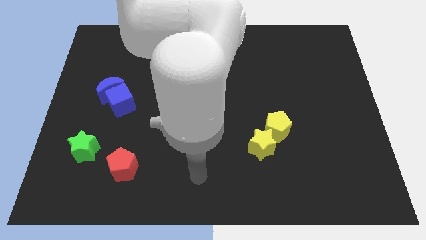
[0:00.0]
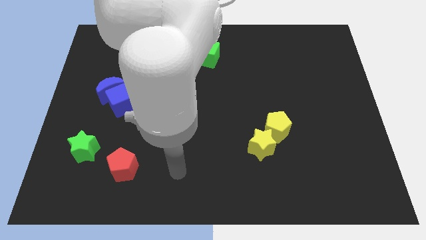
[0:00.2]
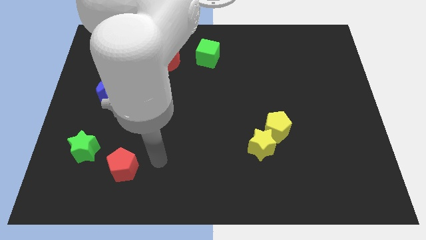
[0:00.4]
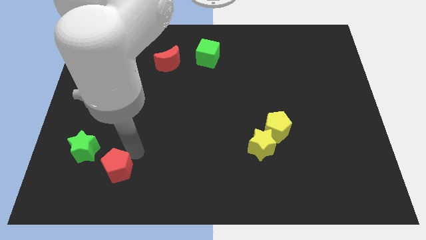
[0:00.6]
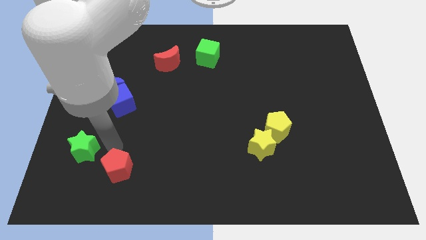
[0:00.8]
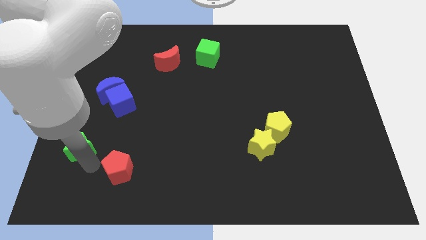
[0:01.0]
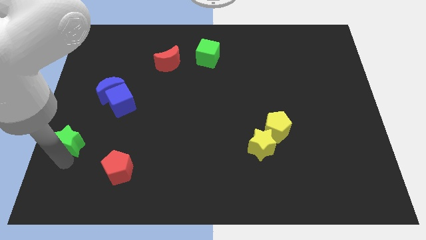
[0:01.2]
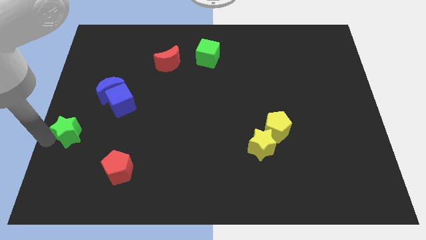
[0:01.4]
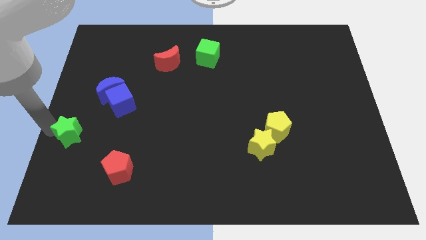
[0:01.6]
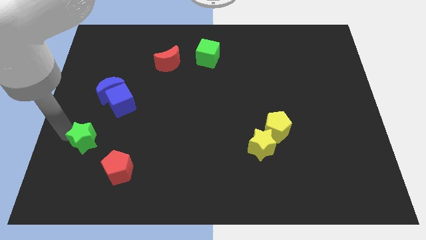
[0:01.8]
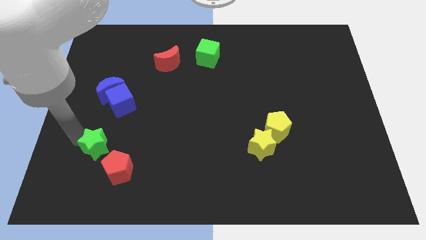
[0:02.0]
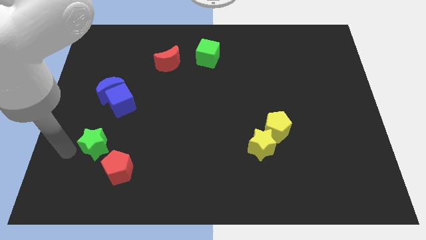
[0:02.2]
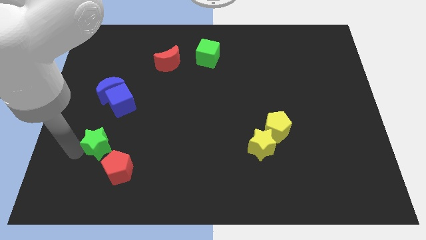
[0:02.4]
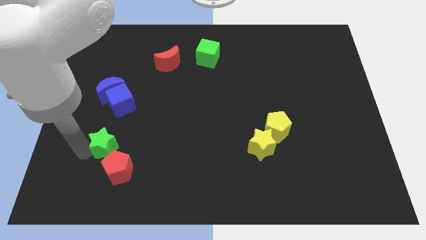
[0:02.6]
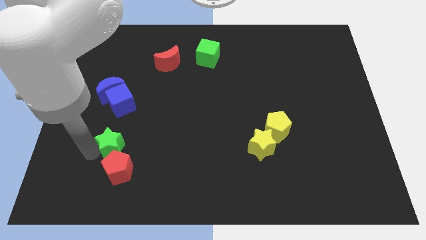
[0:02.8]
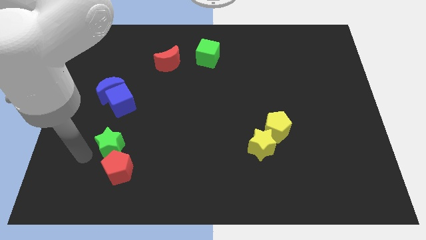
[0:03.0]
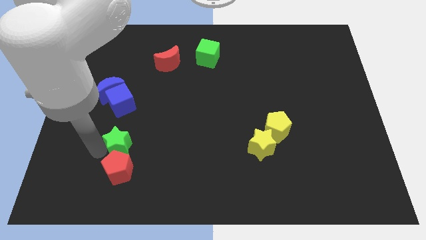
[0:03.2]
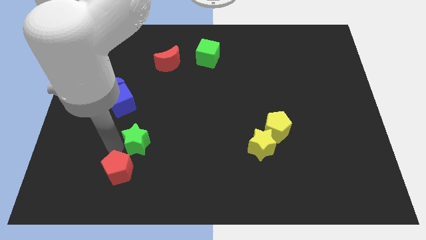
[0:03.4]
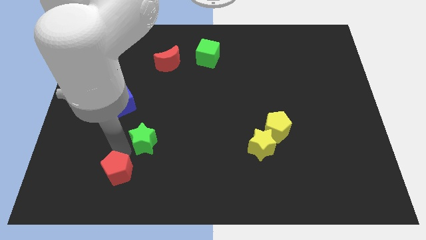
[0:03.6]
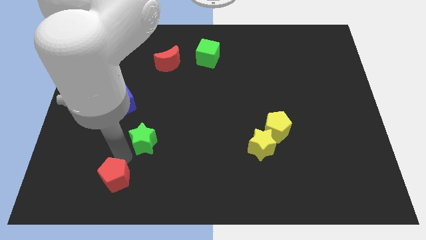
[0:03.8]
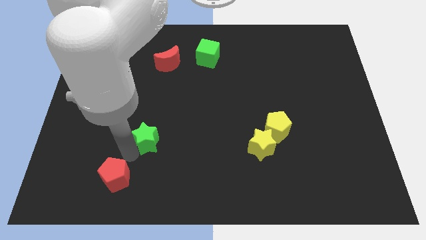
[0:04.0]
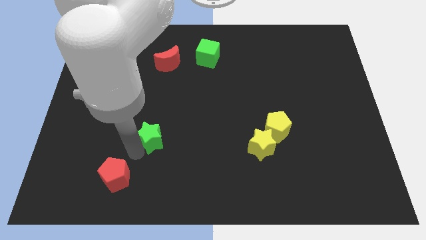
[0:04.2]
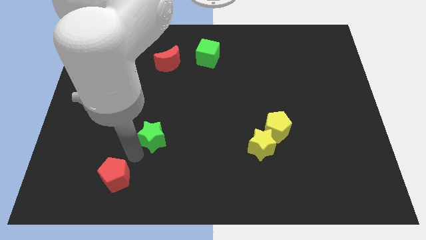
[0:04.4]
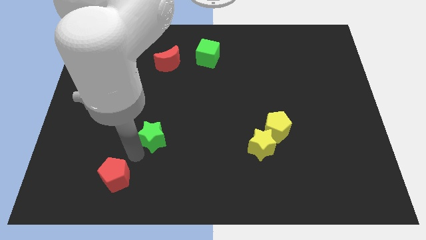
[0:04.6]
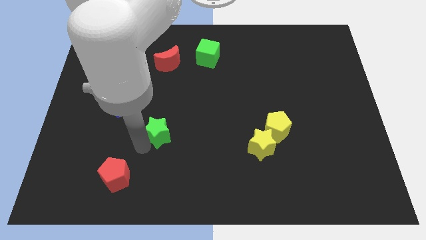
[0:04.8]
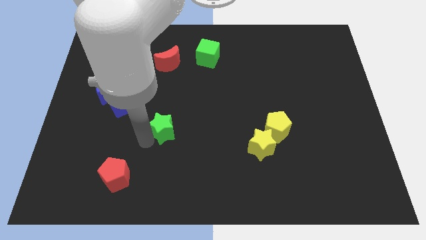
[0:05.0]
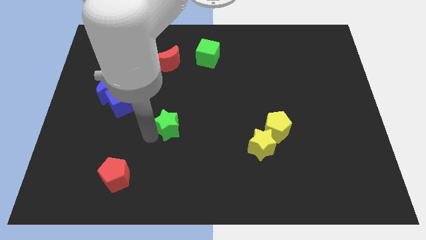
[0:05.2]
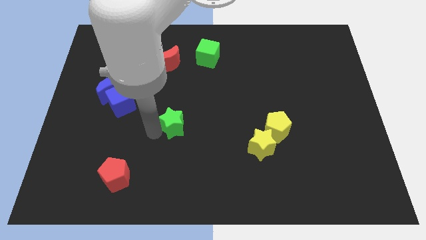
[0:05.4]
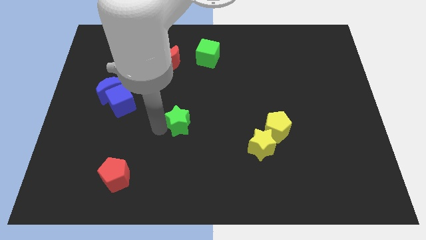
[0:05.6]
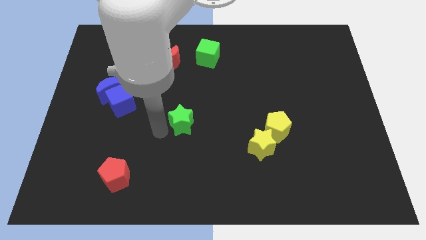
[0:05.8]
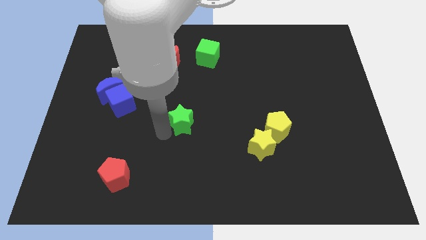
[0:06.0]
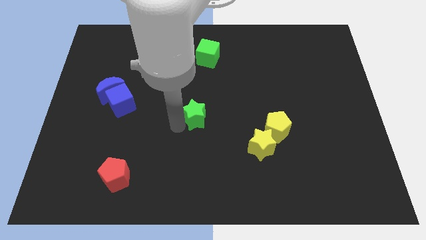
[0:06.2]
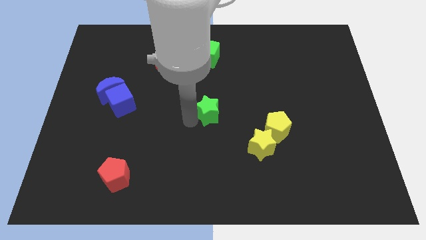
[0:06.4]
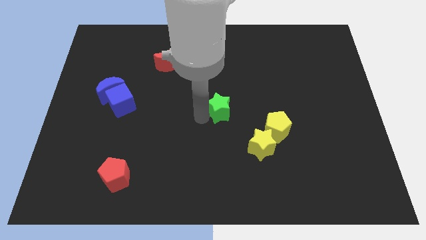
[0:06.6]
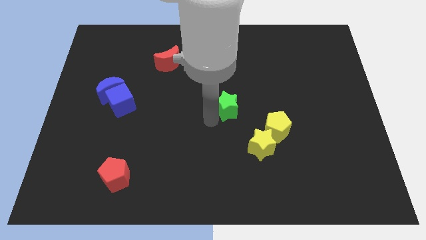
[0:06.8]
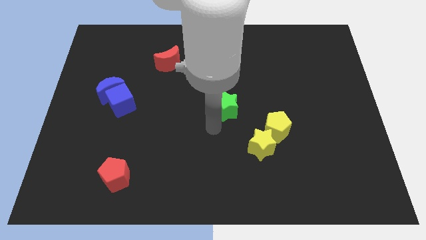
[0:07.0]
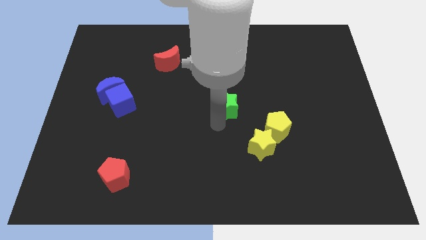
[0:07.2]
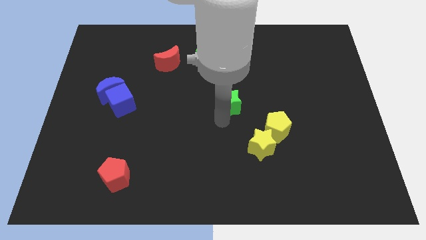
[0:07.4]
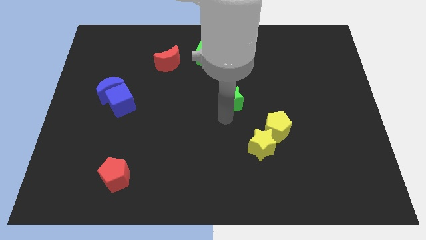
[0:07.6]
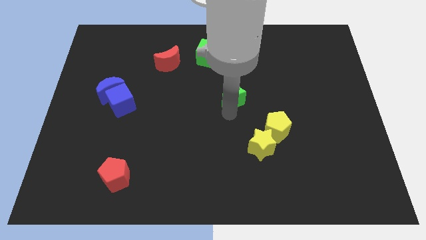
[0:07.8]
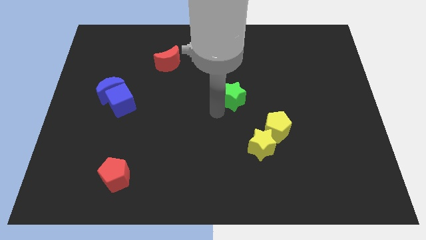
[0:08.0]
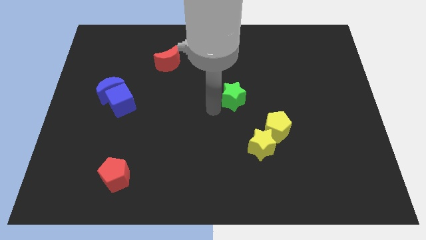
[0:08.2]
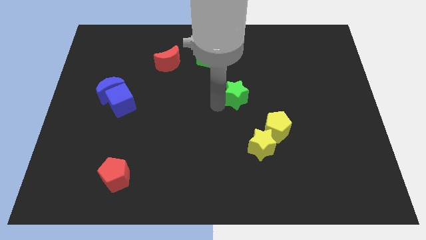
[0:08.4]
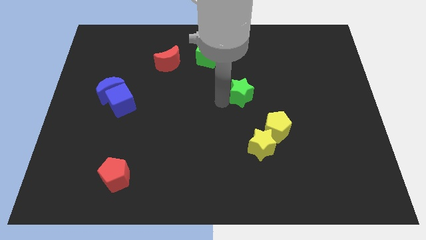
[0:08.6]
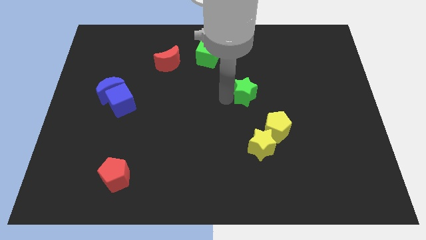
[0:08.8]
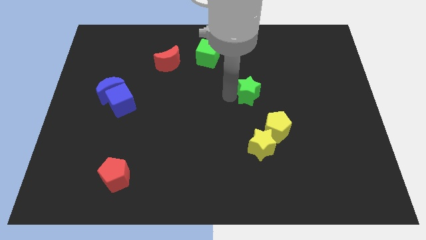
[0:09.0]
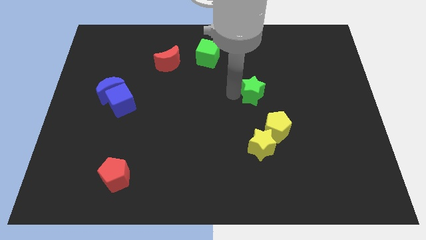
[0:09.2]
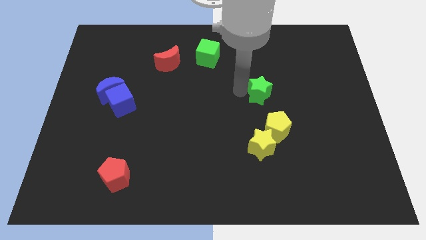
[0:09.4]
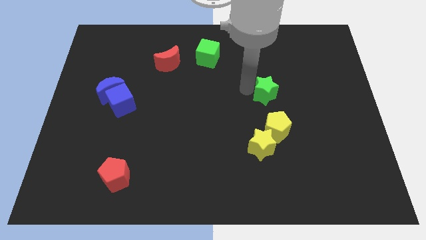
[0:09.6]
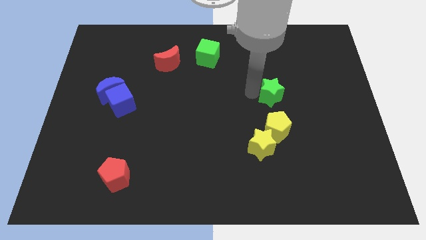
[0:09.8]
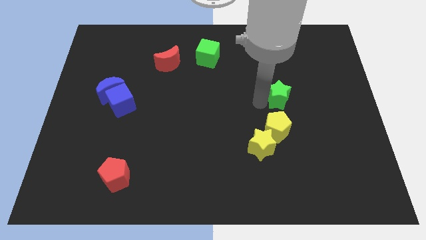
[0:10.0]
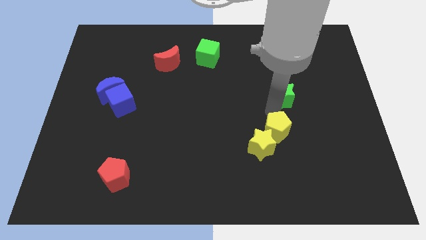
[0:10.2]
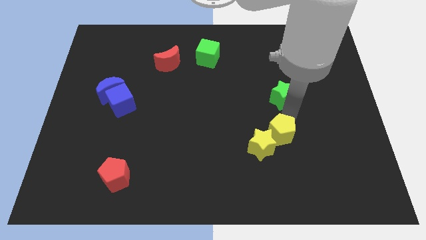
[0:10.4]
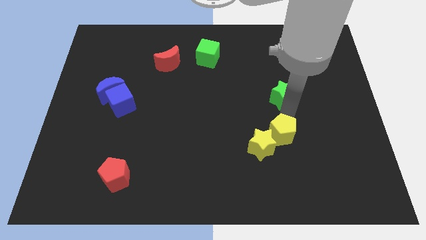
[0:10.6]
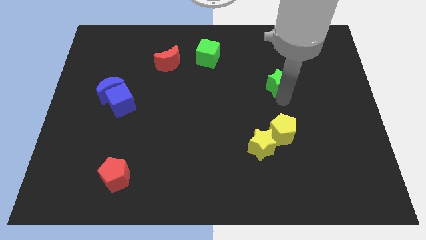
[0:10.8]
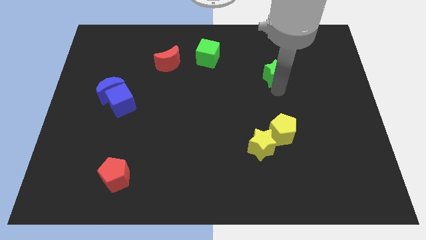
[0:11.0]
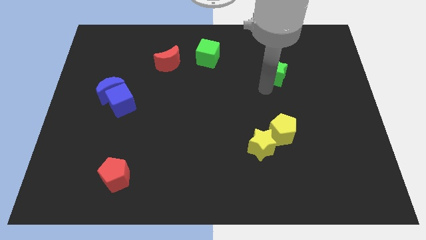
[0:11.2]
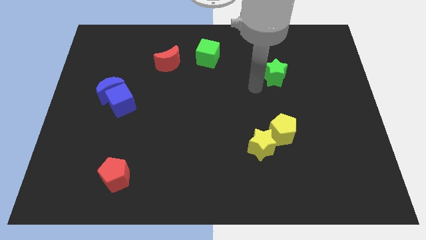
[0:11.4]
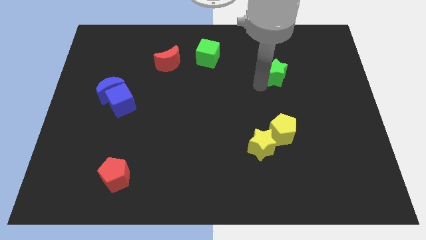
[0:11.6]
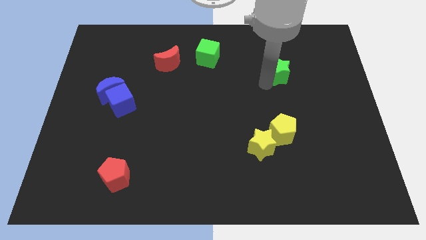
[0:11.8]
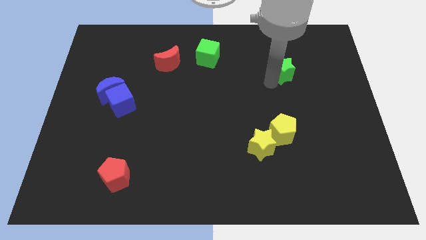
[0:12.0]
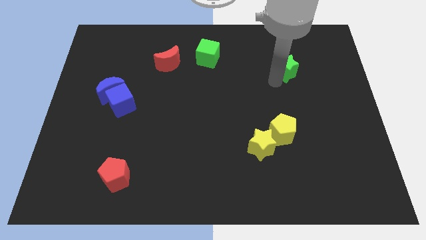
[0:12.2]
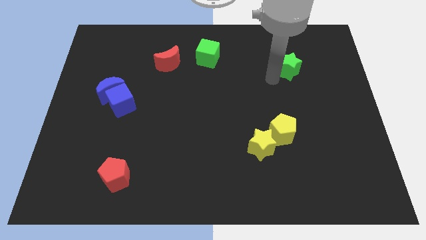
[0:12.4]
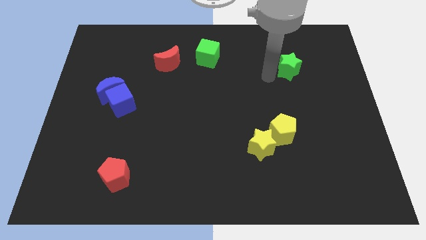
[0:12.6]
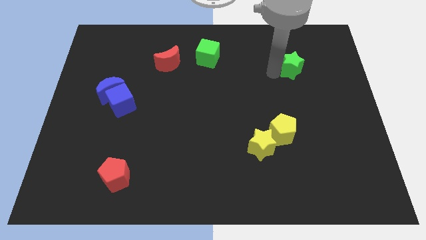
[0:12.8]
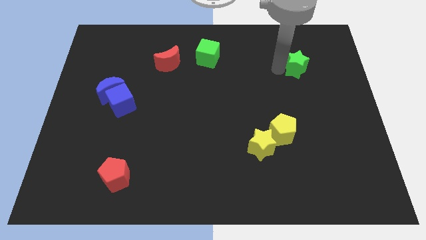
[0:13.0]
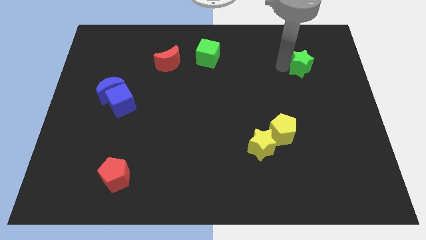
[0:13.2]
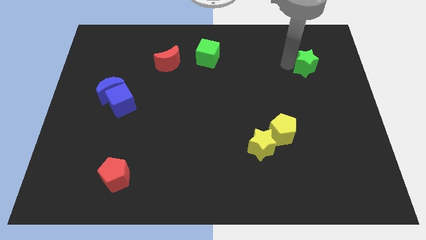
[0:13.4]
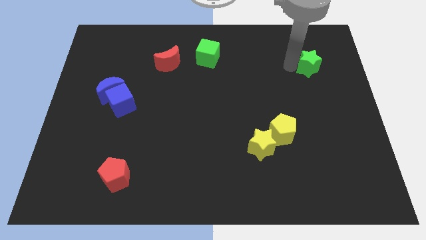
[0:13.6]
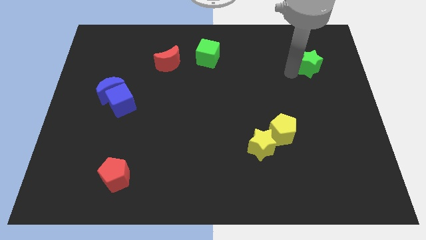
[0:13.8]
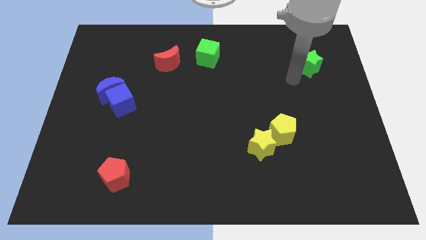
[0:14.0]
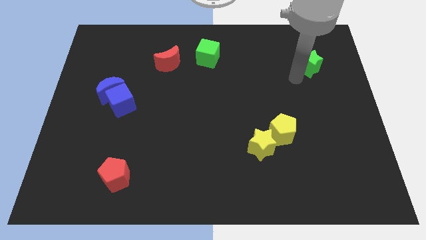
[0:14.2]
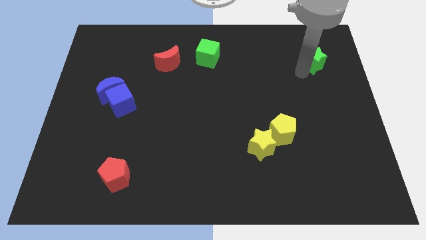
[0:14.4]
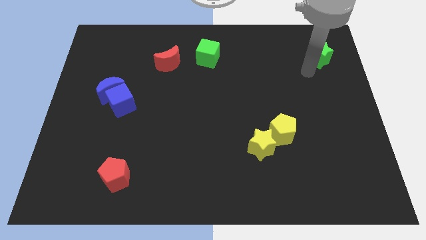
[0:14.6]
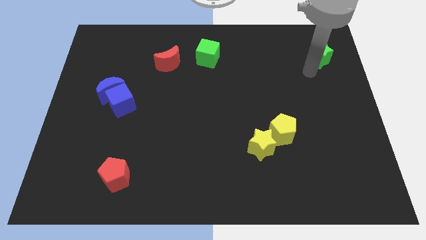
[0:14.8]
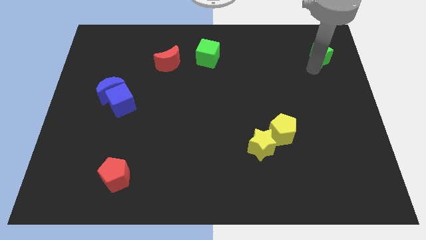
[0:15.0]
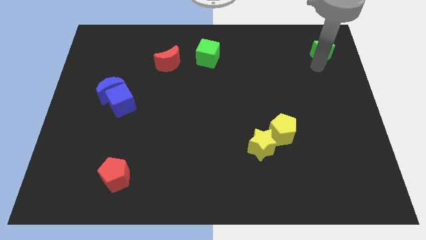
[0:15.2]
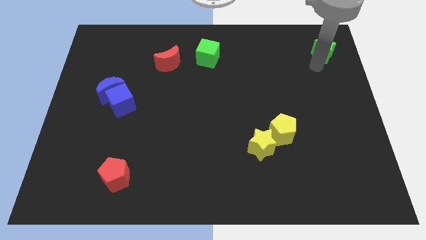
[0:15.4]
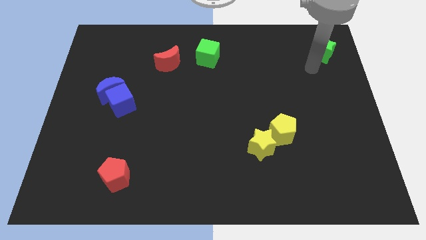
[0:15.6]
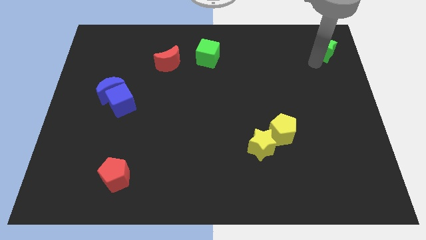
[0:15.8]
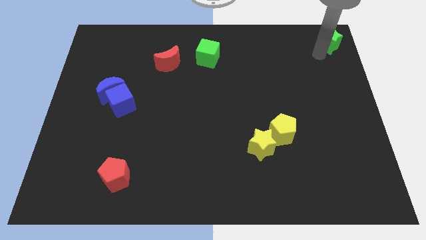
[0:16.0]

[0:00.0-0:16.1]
slide the green star to the top right corner
